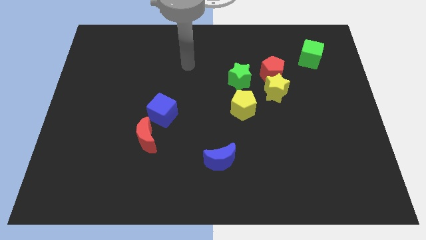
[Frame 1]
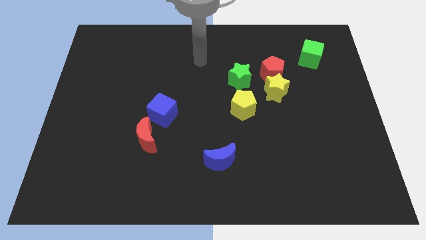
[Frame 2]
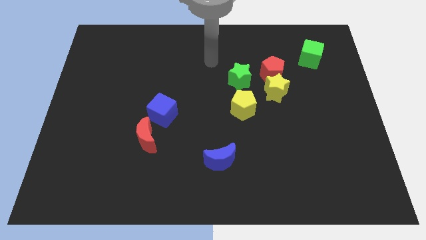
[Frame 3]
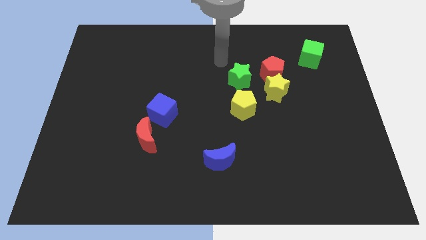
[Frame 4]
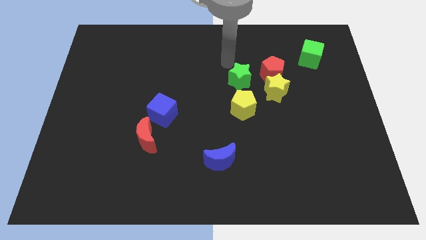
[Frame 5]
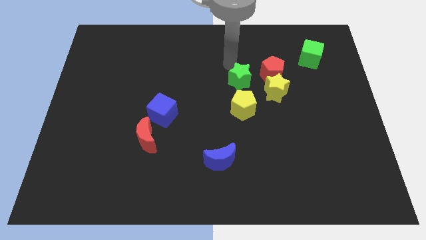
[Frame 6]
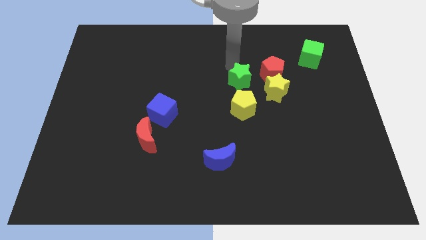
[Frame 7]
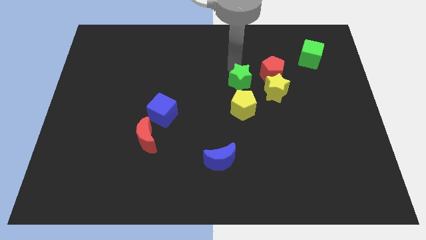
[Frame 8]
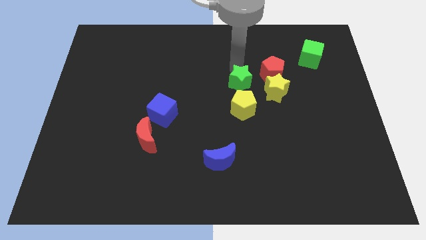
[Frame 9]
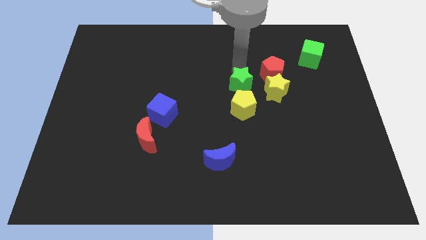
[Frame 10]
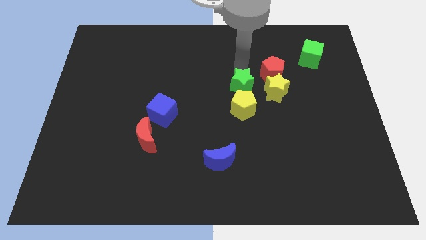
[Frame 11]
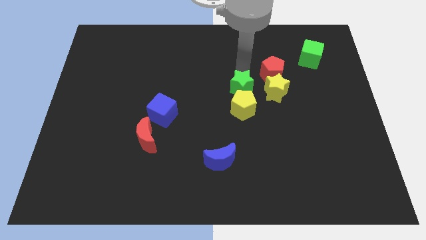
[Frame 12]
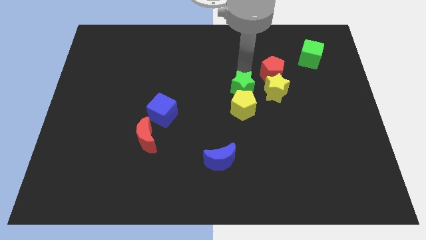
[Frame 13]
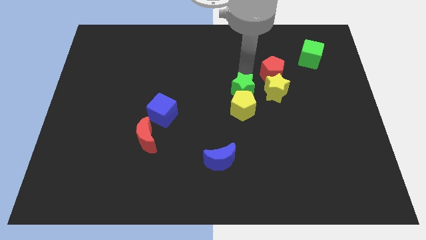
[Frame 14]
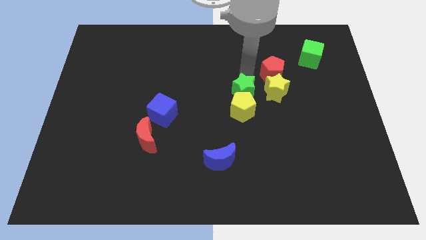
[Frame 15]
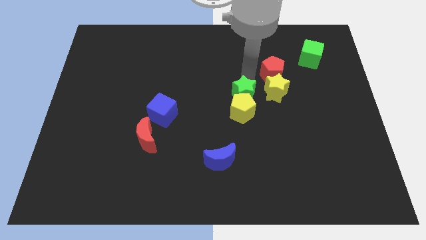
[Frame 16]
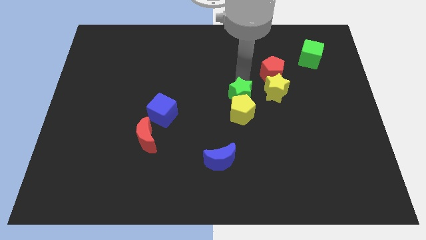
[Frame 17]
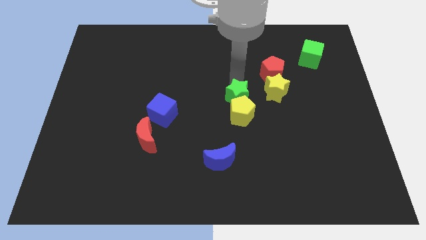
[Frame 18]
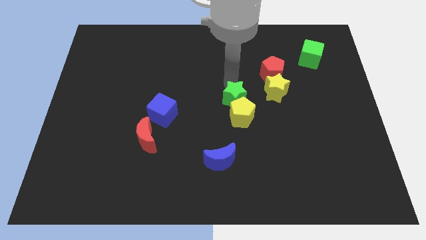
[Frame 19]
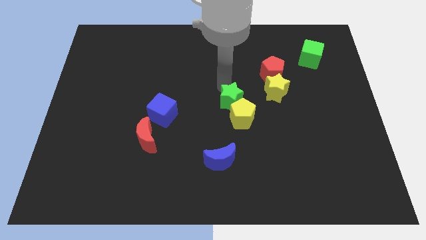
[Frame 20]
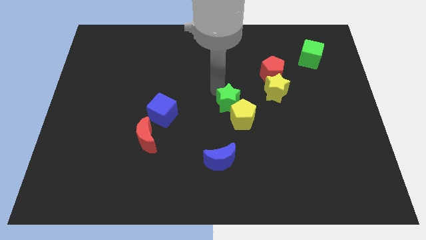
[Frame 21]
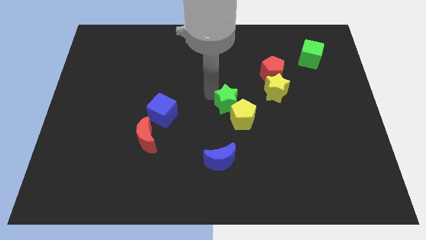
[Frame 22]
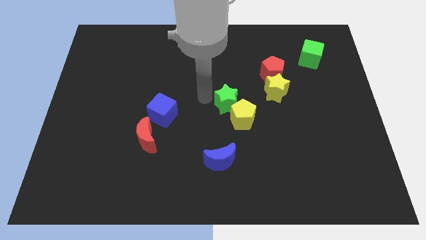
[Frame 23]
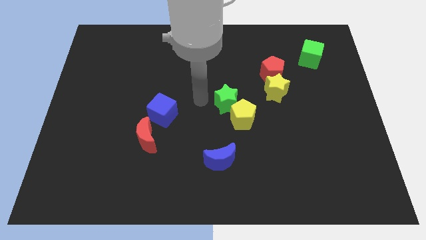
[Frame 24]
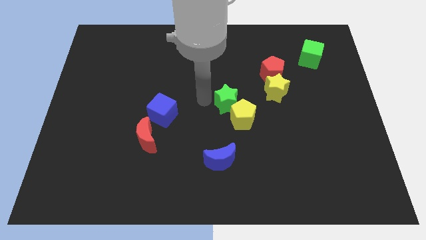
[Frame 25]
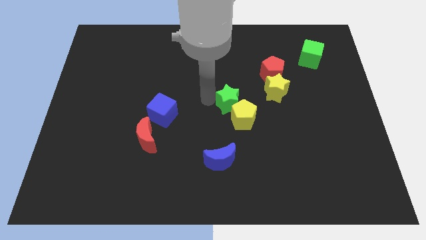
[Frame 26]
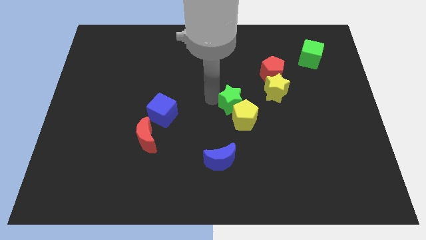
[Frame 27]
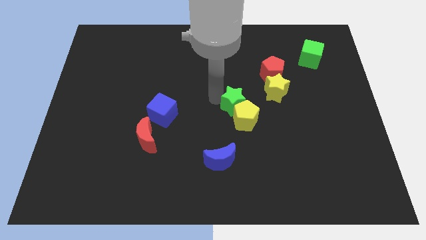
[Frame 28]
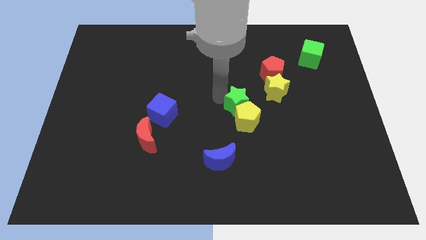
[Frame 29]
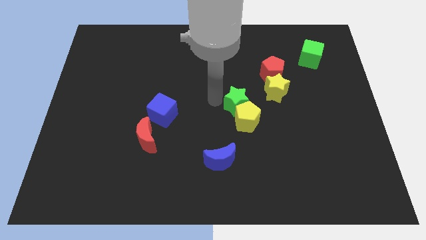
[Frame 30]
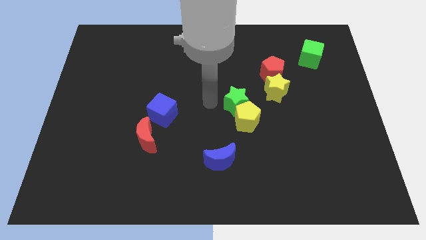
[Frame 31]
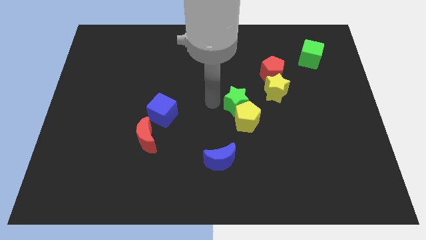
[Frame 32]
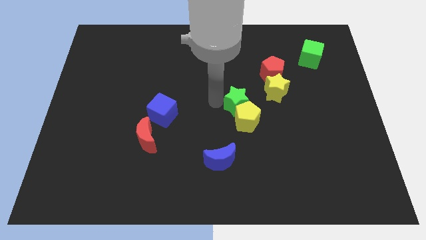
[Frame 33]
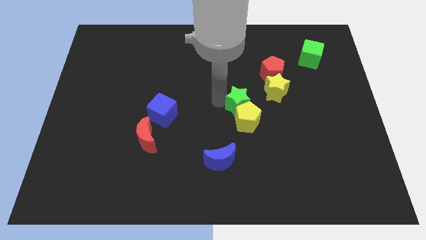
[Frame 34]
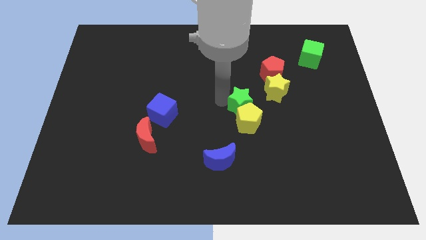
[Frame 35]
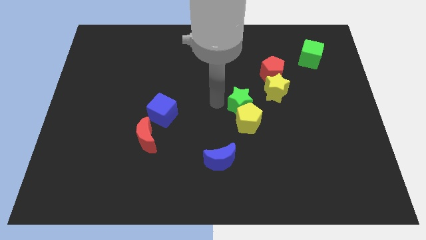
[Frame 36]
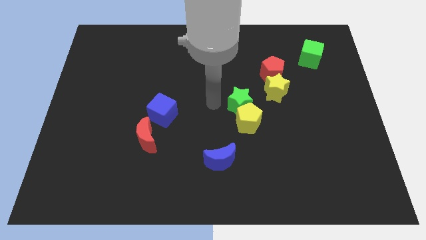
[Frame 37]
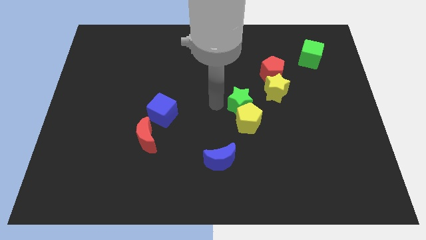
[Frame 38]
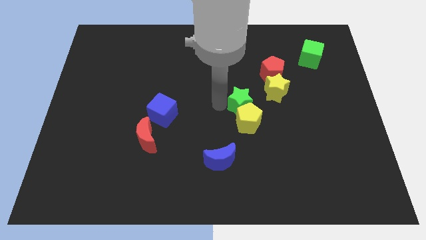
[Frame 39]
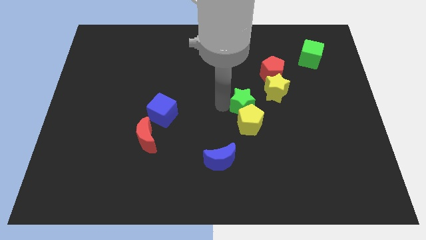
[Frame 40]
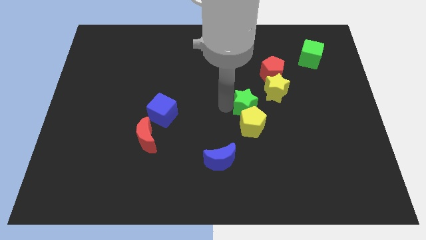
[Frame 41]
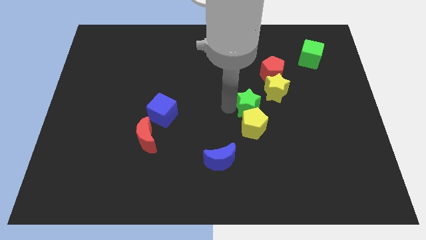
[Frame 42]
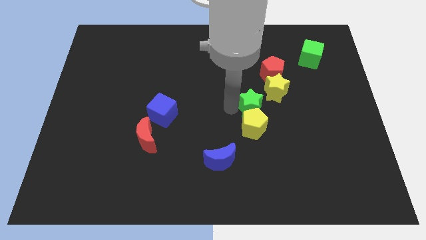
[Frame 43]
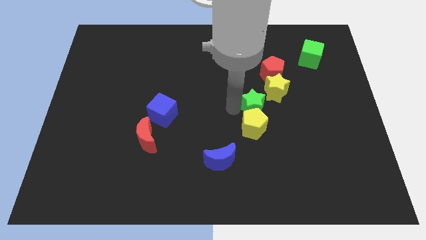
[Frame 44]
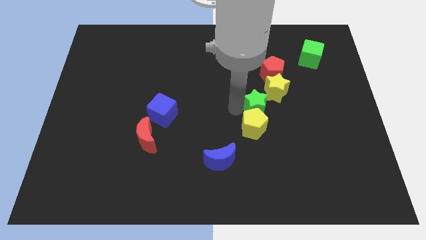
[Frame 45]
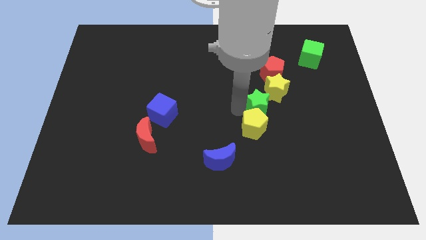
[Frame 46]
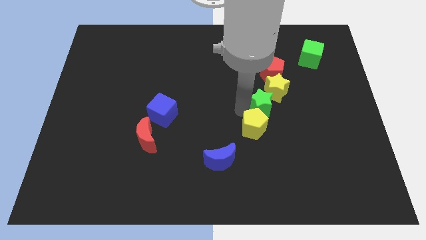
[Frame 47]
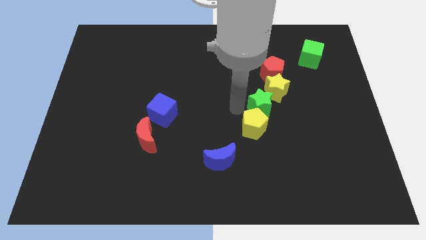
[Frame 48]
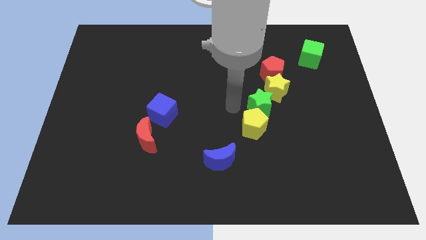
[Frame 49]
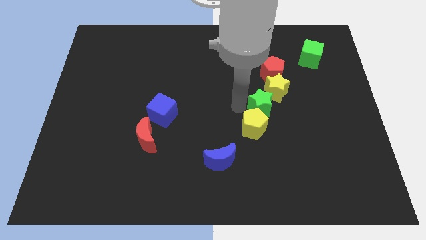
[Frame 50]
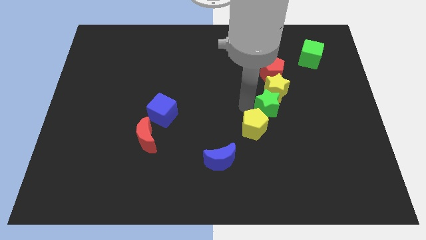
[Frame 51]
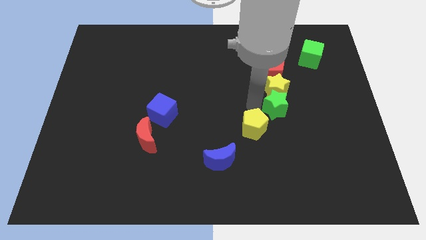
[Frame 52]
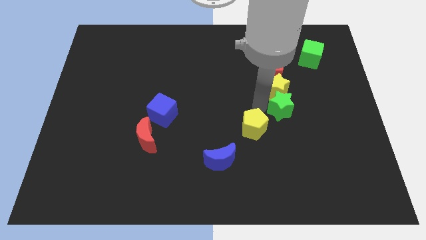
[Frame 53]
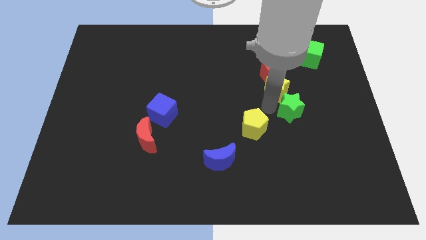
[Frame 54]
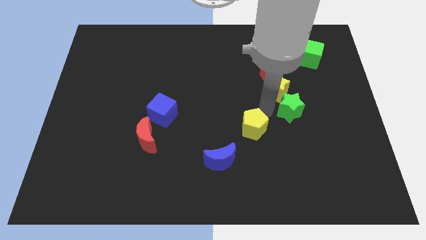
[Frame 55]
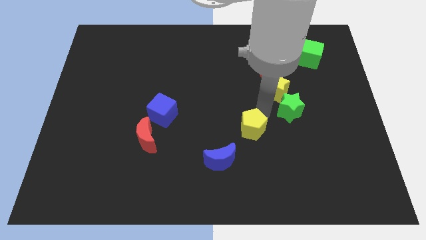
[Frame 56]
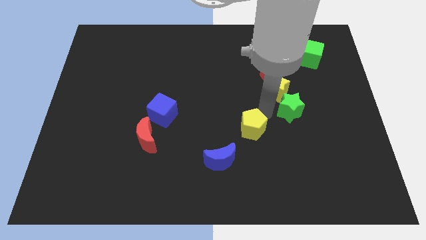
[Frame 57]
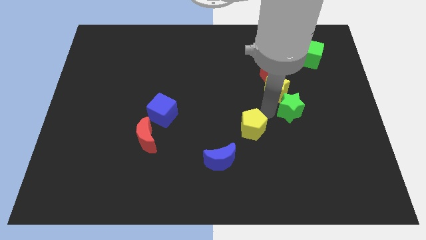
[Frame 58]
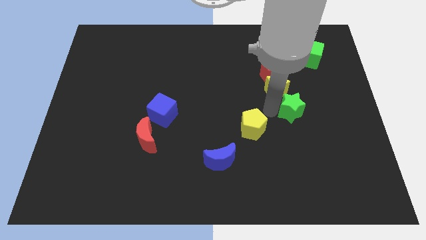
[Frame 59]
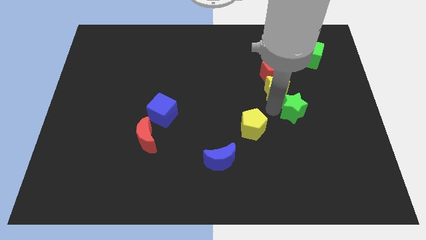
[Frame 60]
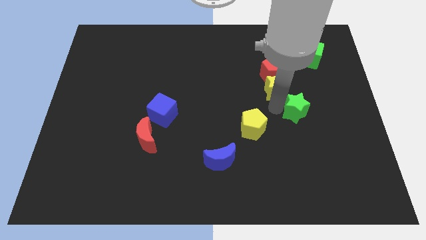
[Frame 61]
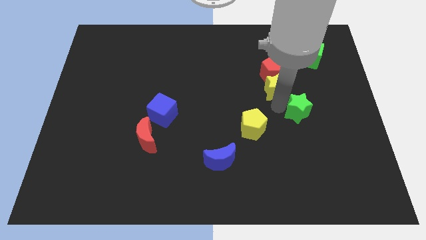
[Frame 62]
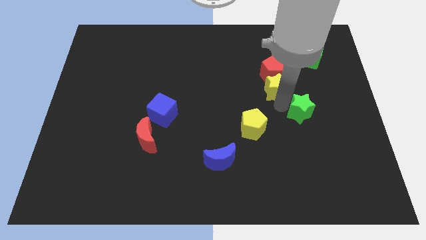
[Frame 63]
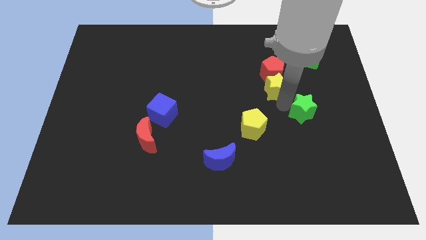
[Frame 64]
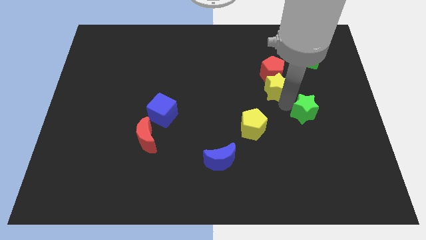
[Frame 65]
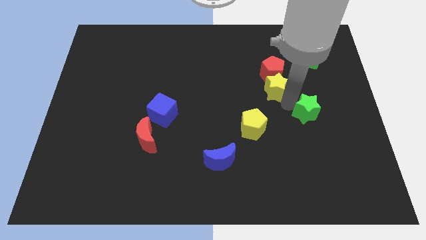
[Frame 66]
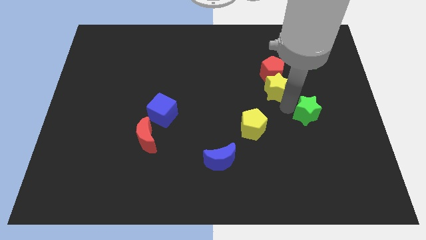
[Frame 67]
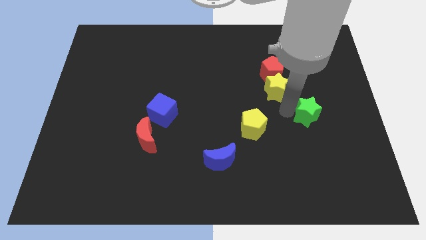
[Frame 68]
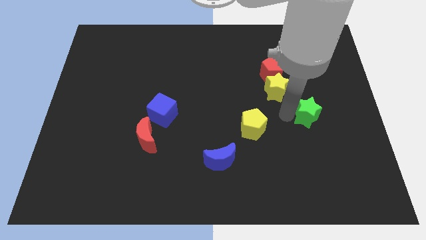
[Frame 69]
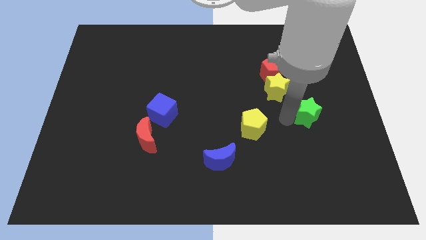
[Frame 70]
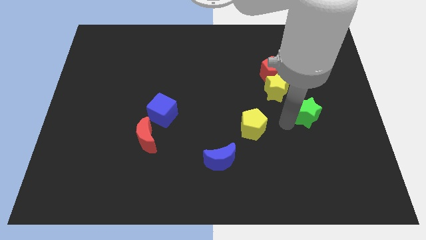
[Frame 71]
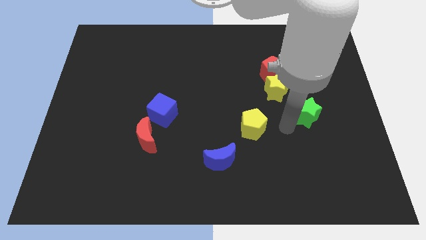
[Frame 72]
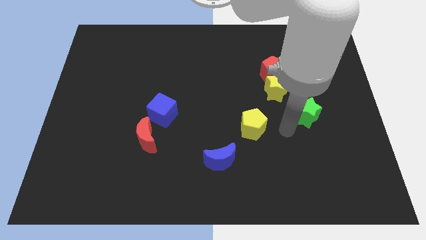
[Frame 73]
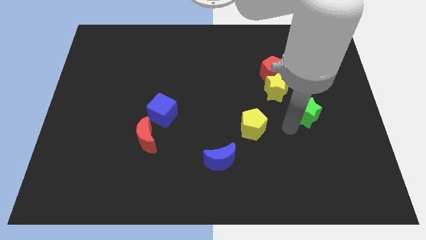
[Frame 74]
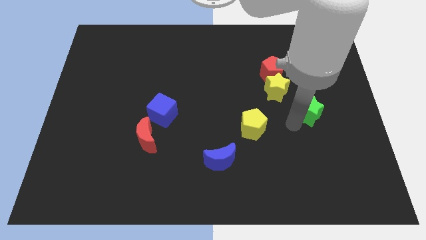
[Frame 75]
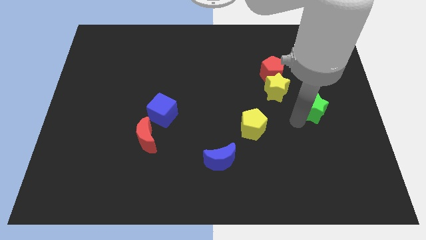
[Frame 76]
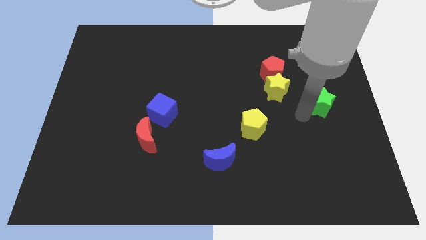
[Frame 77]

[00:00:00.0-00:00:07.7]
put the green star to the center right
